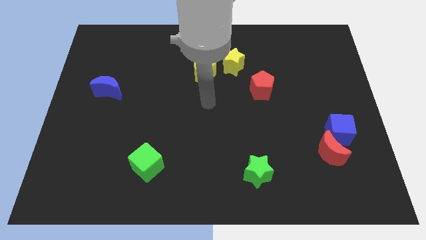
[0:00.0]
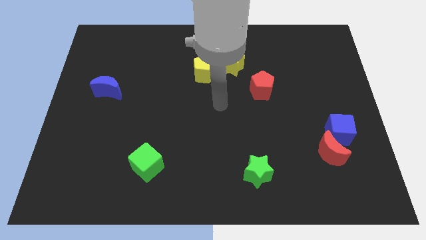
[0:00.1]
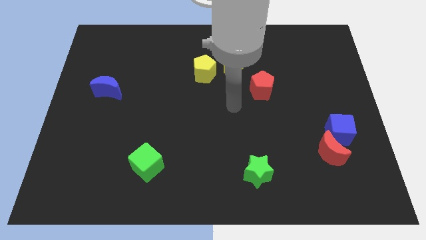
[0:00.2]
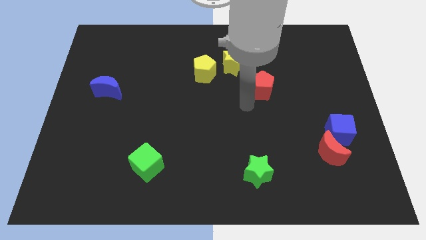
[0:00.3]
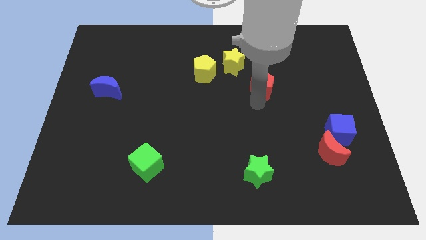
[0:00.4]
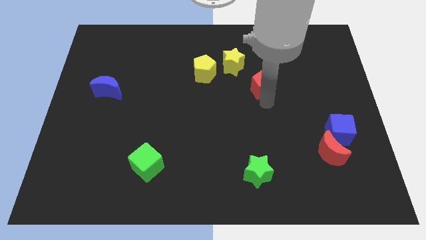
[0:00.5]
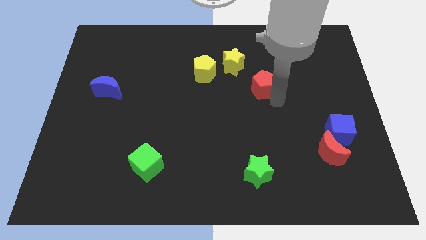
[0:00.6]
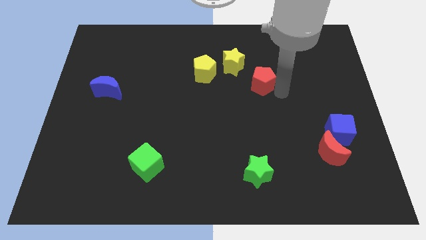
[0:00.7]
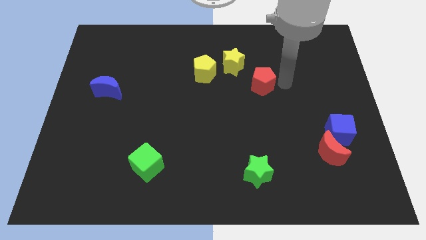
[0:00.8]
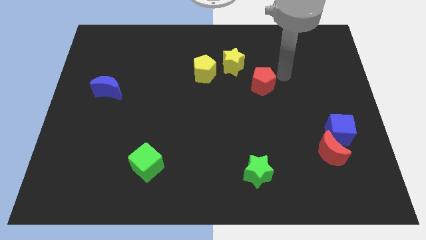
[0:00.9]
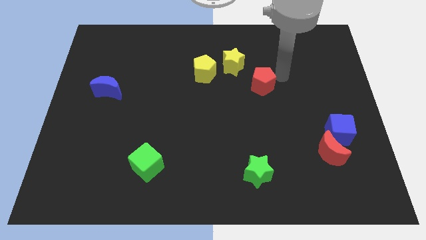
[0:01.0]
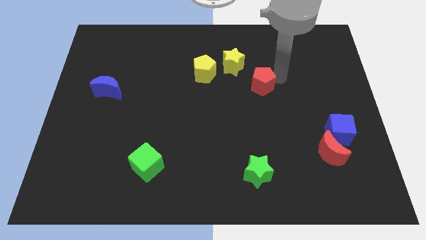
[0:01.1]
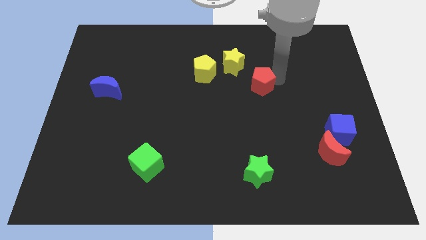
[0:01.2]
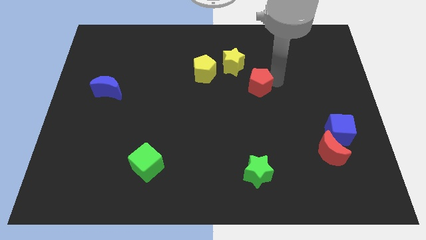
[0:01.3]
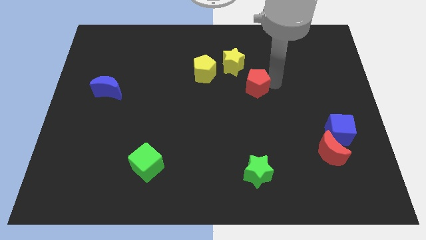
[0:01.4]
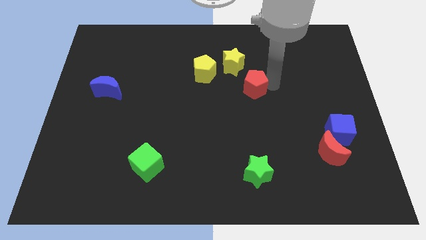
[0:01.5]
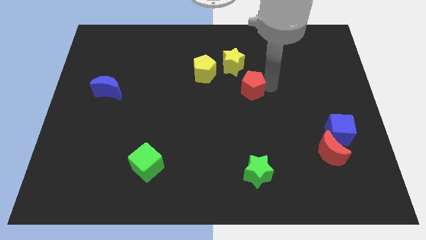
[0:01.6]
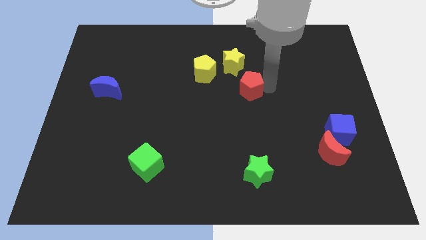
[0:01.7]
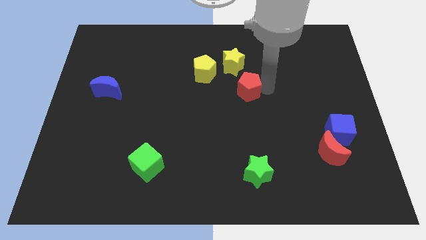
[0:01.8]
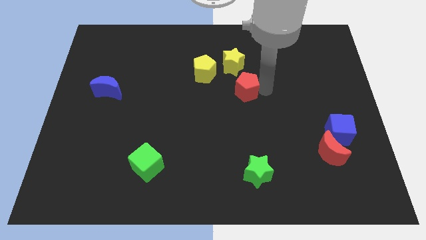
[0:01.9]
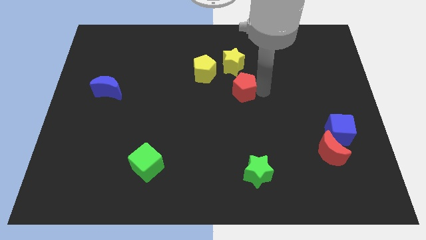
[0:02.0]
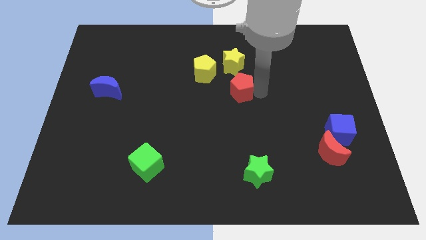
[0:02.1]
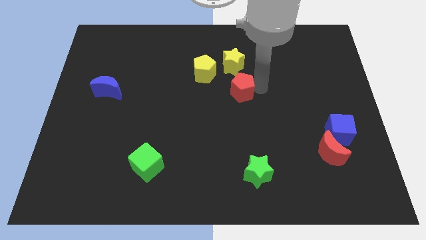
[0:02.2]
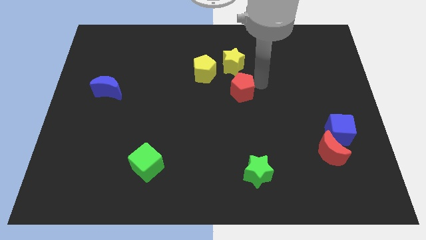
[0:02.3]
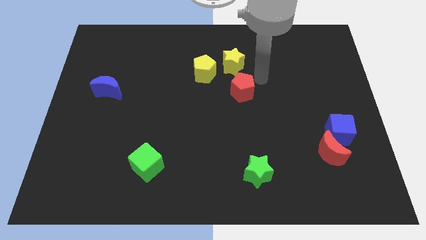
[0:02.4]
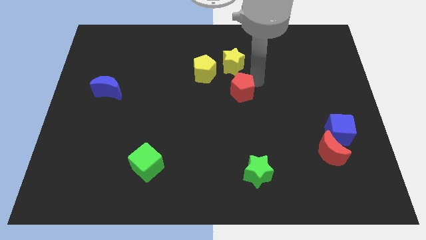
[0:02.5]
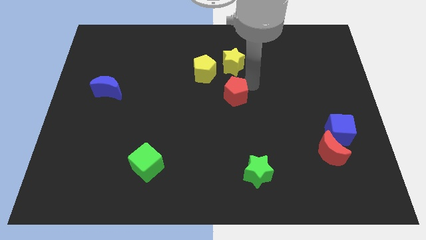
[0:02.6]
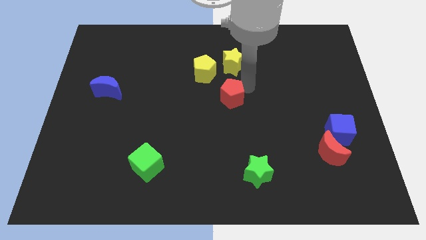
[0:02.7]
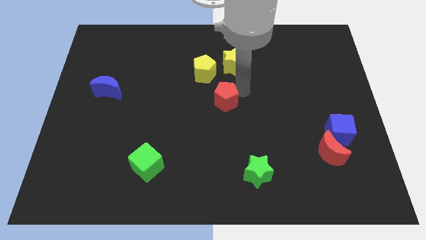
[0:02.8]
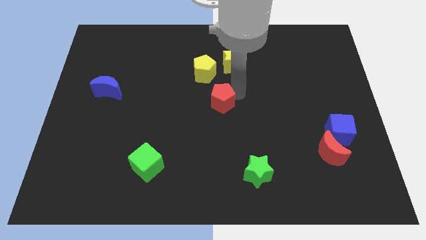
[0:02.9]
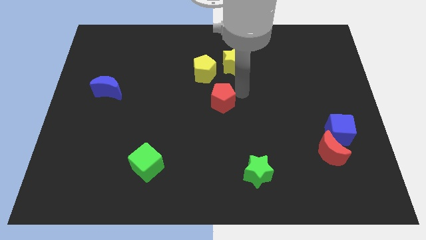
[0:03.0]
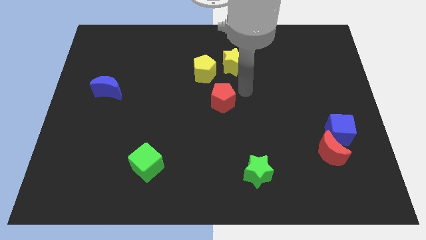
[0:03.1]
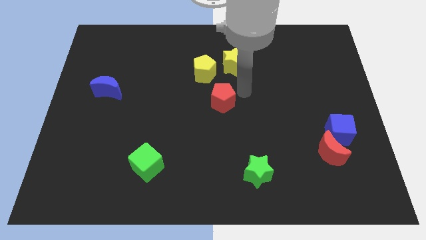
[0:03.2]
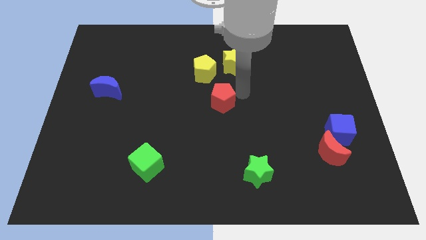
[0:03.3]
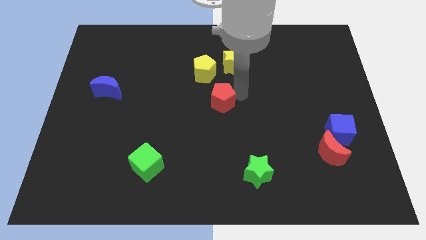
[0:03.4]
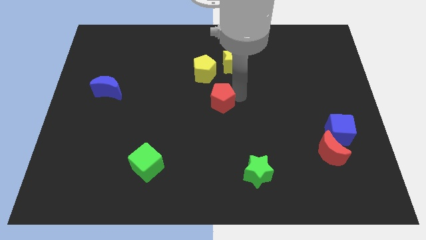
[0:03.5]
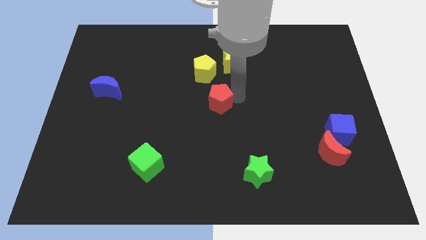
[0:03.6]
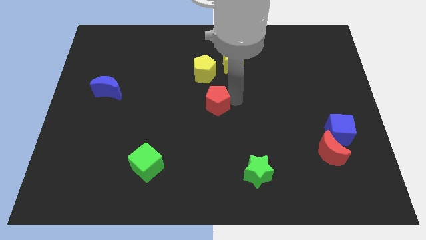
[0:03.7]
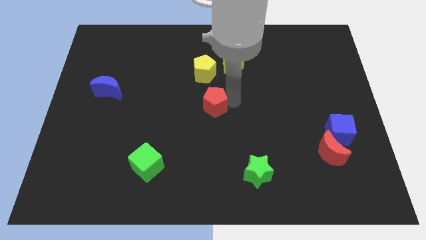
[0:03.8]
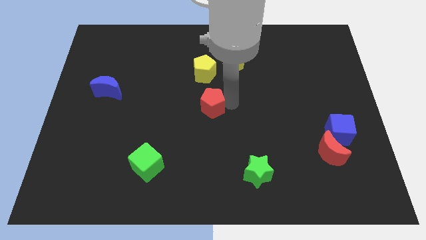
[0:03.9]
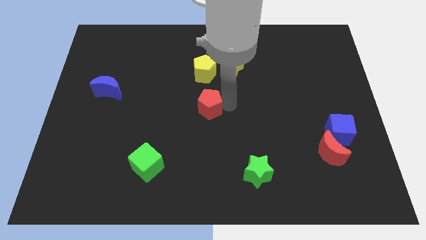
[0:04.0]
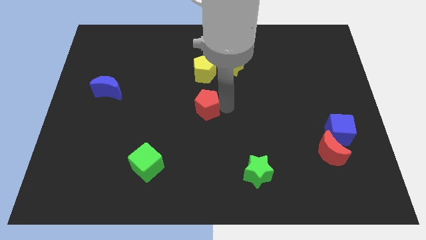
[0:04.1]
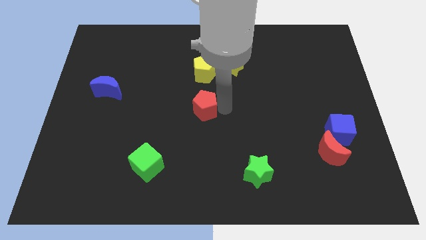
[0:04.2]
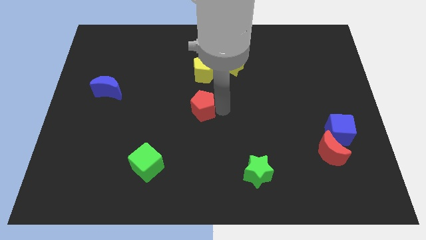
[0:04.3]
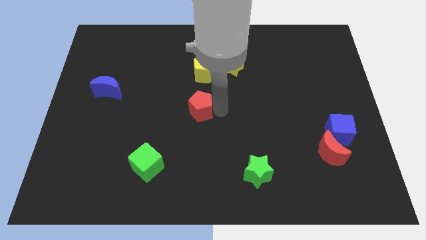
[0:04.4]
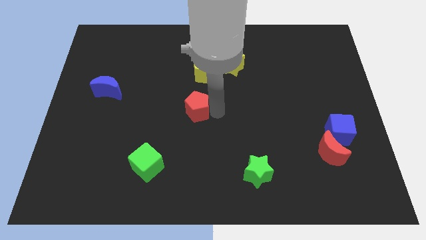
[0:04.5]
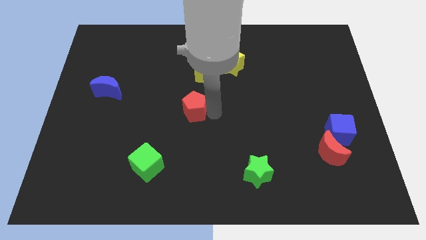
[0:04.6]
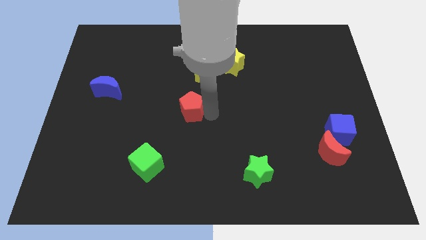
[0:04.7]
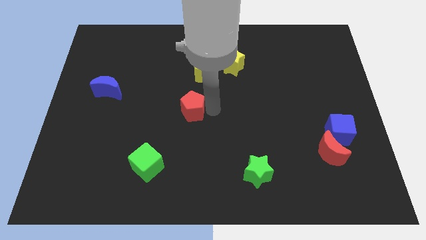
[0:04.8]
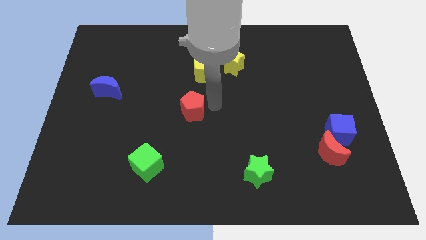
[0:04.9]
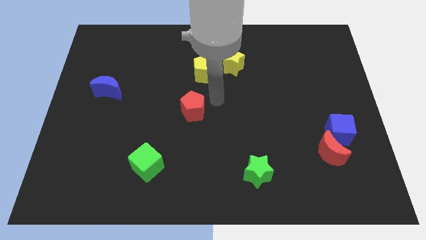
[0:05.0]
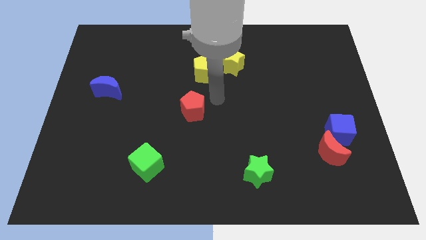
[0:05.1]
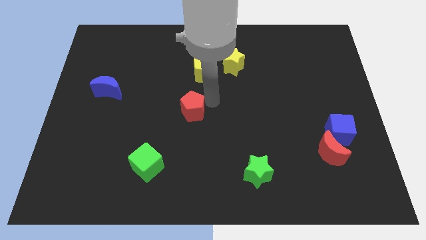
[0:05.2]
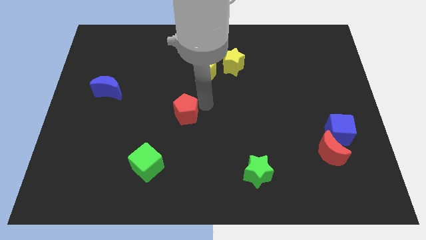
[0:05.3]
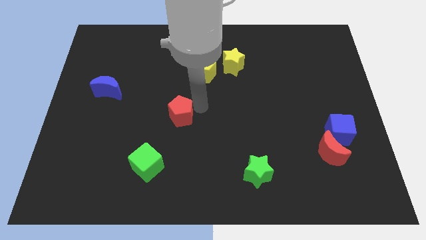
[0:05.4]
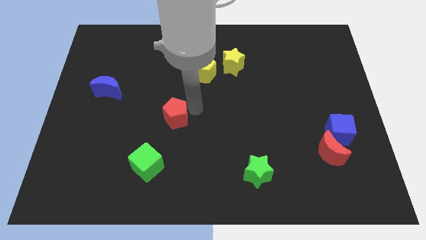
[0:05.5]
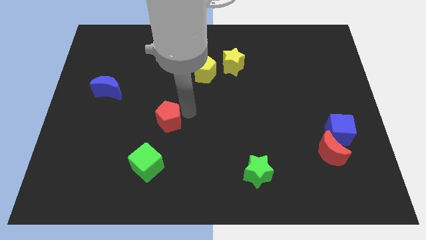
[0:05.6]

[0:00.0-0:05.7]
slide the red pentagon above the green cube

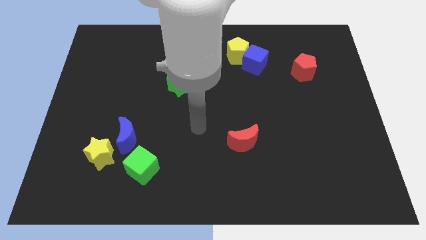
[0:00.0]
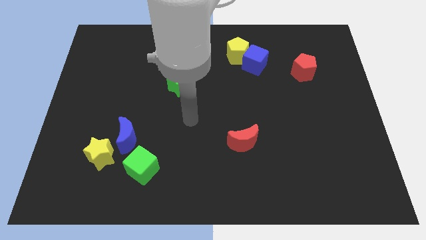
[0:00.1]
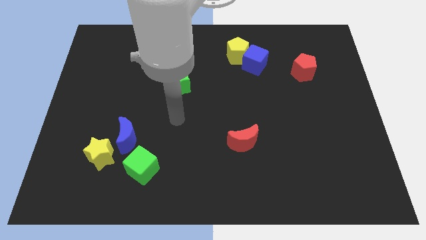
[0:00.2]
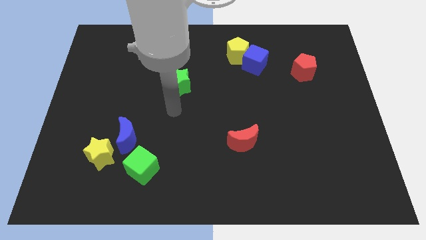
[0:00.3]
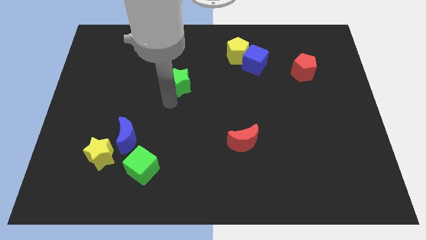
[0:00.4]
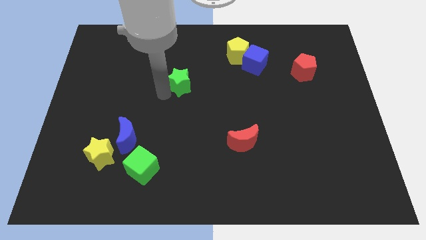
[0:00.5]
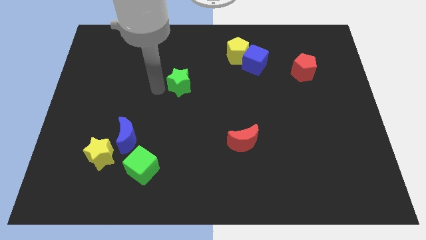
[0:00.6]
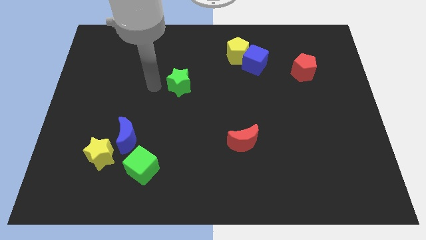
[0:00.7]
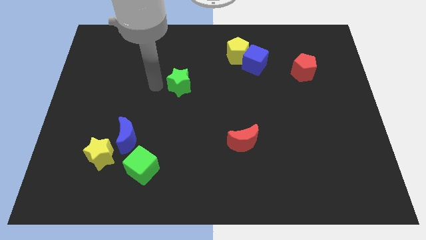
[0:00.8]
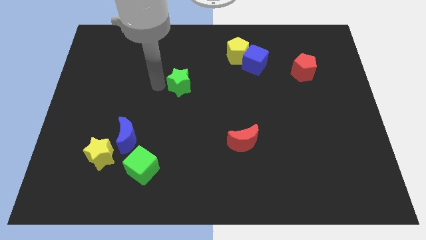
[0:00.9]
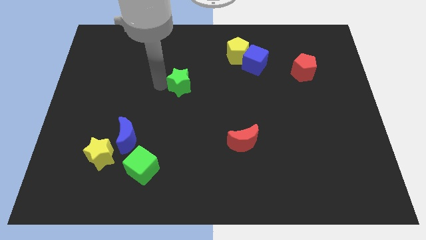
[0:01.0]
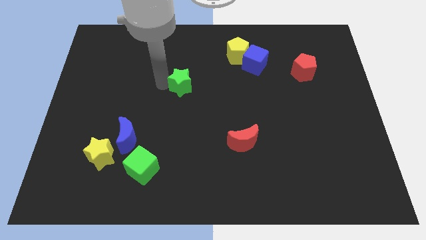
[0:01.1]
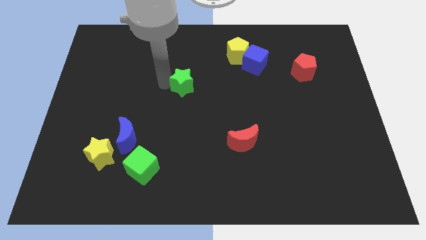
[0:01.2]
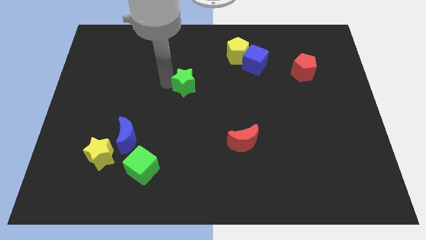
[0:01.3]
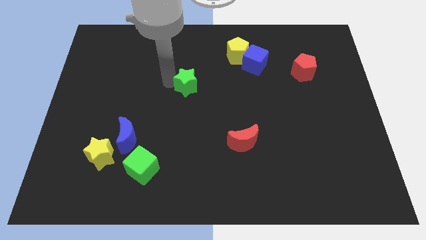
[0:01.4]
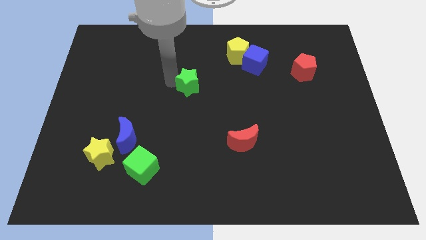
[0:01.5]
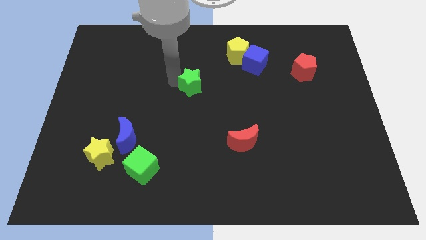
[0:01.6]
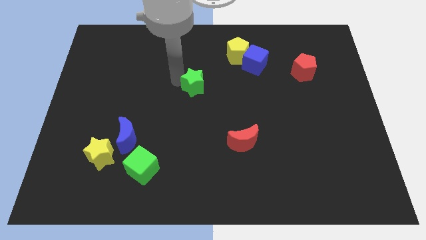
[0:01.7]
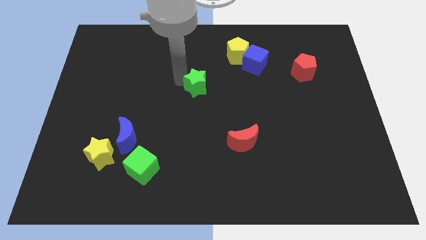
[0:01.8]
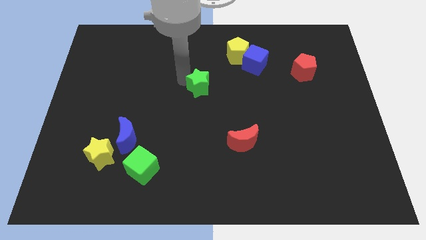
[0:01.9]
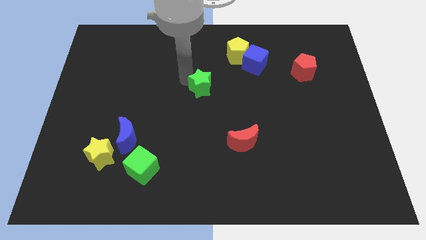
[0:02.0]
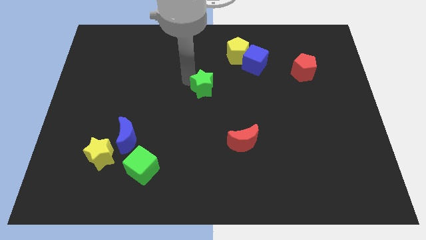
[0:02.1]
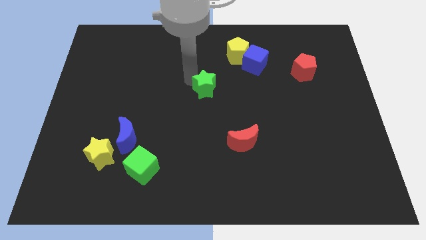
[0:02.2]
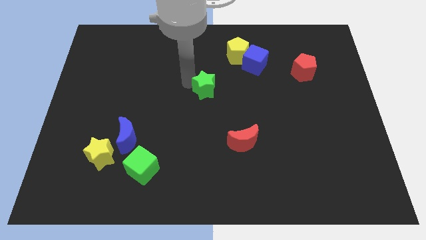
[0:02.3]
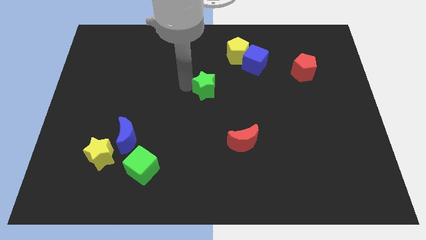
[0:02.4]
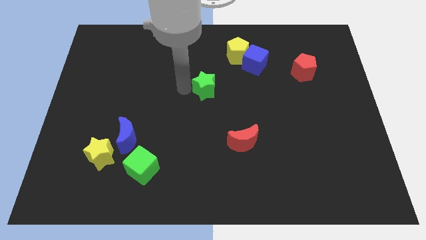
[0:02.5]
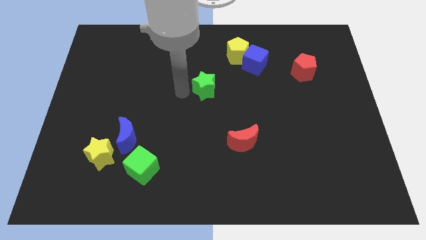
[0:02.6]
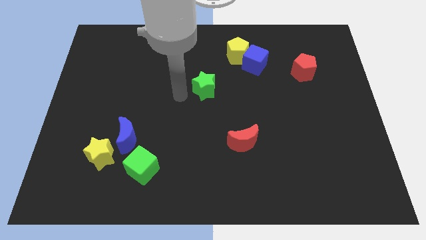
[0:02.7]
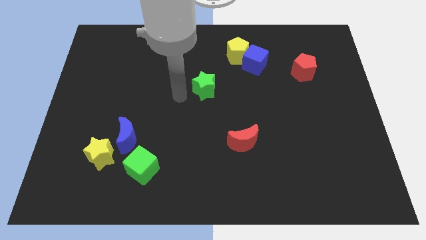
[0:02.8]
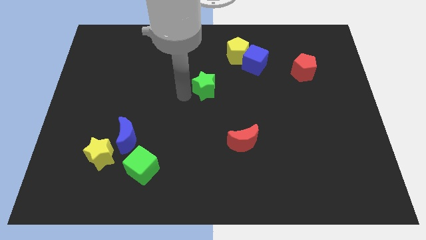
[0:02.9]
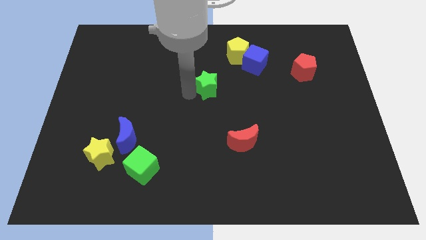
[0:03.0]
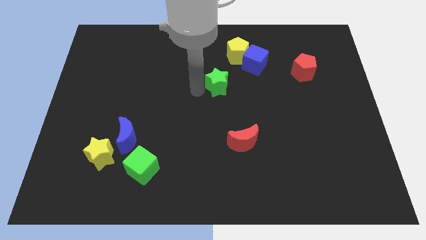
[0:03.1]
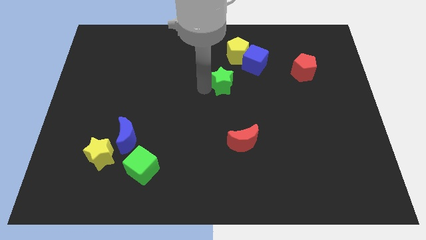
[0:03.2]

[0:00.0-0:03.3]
put the green star to the bottom side of the yellow pentagon
